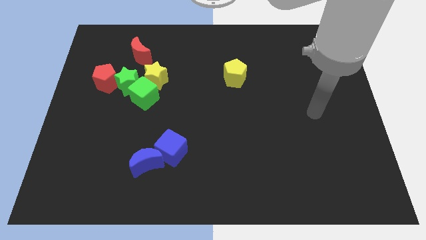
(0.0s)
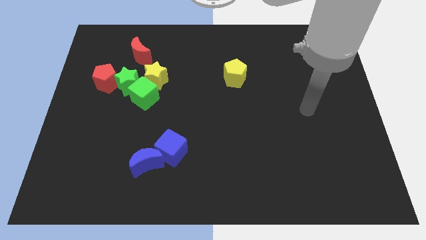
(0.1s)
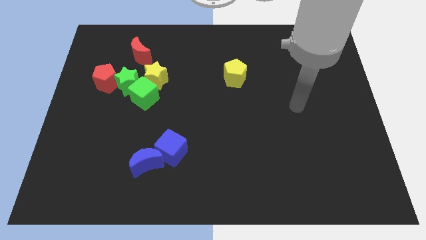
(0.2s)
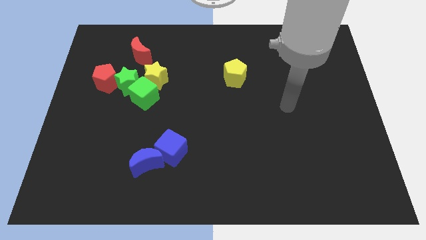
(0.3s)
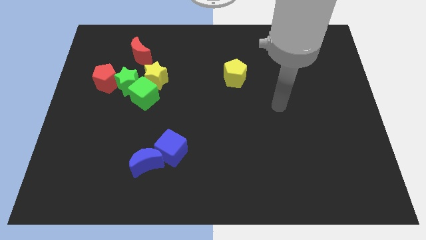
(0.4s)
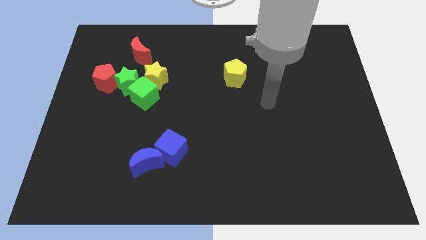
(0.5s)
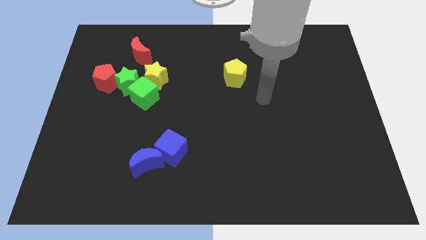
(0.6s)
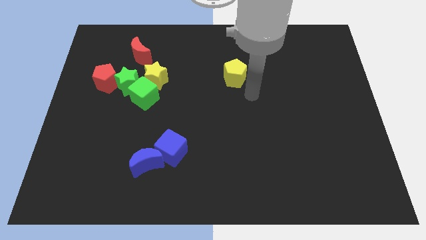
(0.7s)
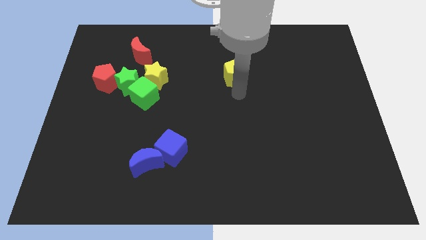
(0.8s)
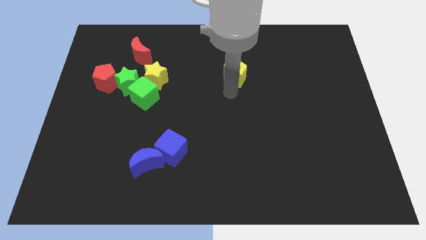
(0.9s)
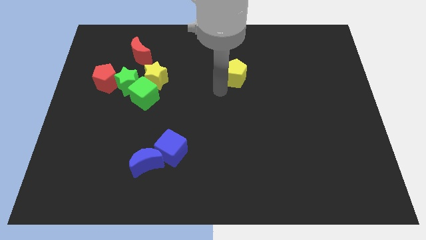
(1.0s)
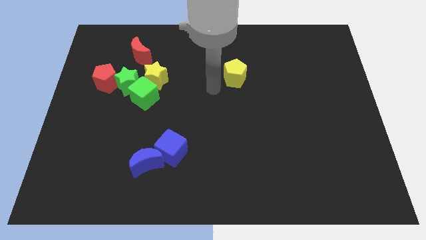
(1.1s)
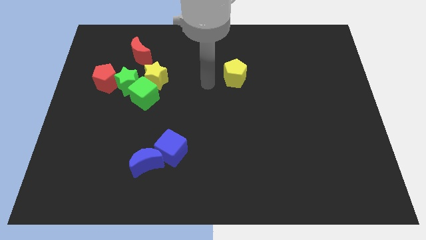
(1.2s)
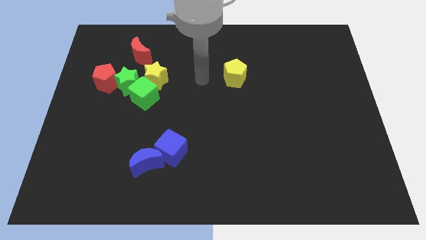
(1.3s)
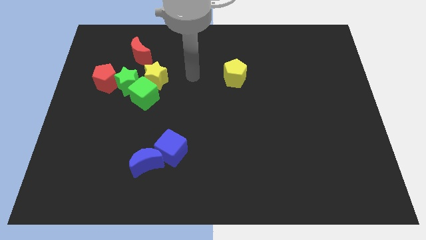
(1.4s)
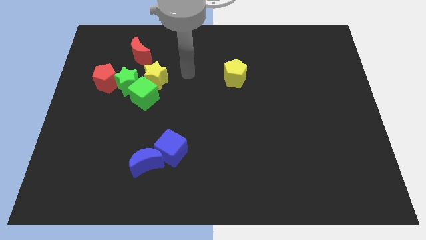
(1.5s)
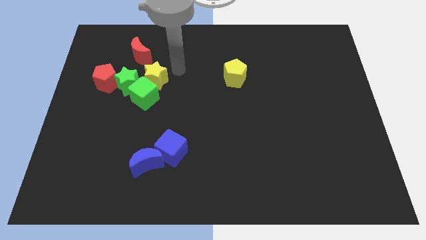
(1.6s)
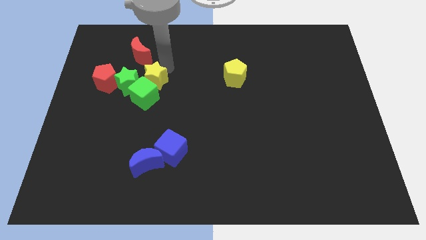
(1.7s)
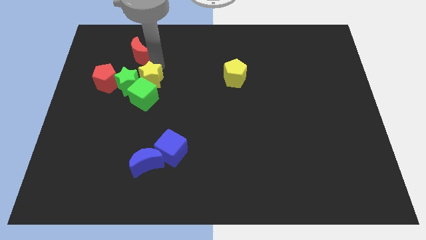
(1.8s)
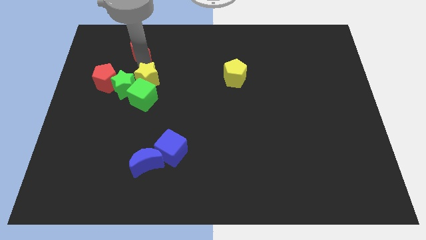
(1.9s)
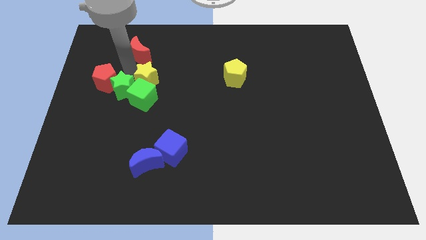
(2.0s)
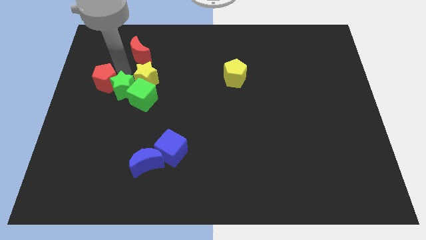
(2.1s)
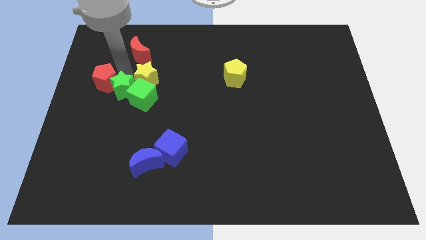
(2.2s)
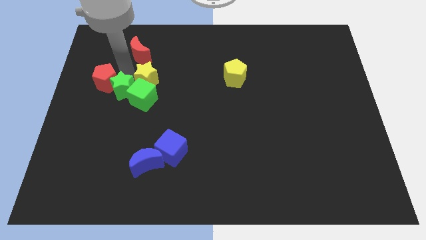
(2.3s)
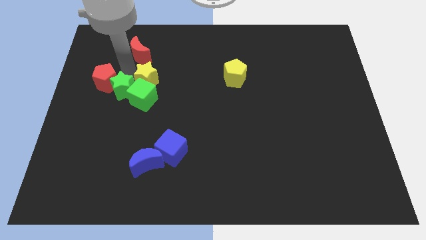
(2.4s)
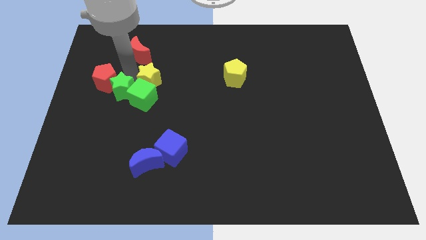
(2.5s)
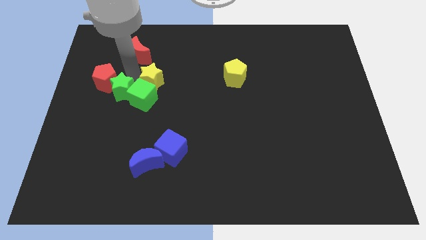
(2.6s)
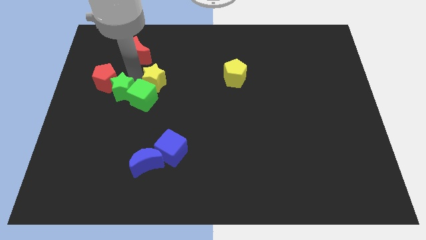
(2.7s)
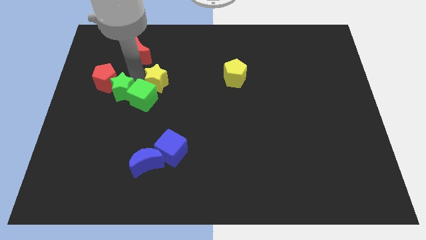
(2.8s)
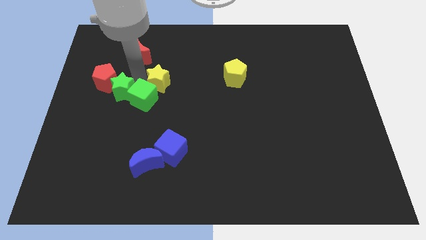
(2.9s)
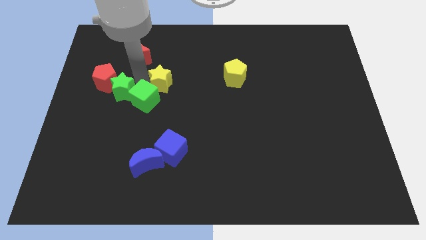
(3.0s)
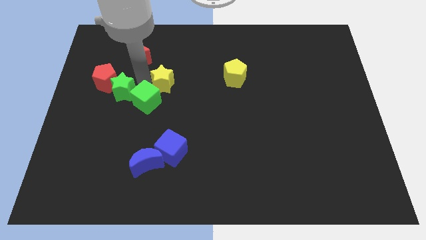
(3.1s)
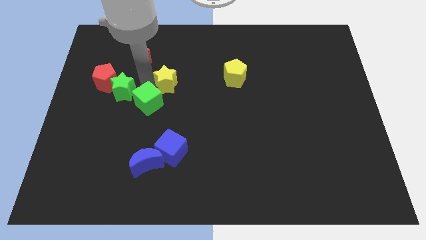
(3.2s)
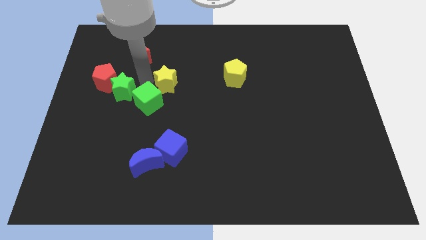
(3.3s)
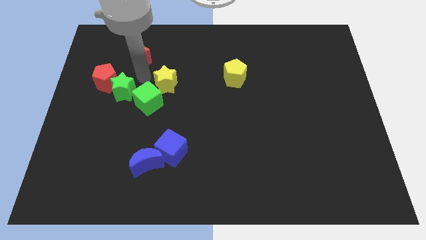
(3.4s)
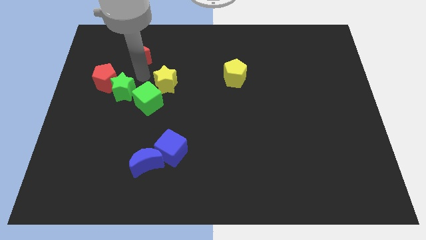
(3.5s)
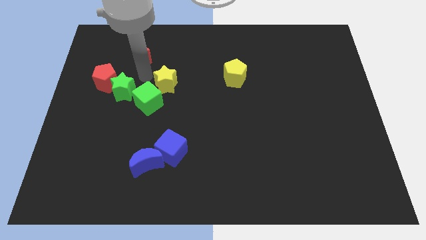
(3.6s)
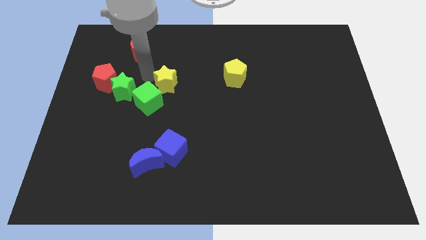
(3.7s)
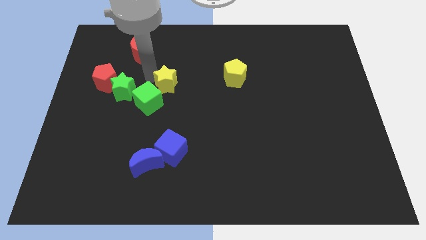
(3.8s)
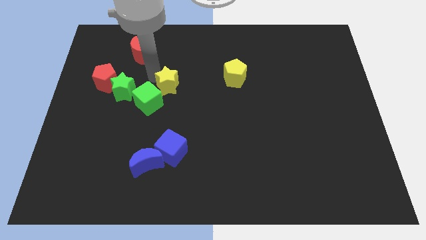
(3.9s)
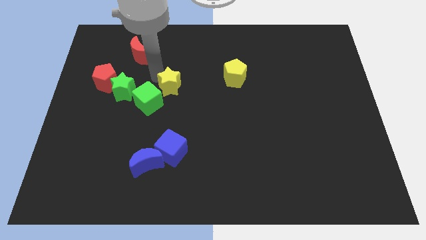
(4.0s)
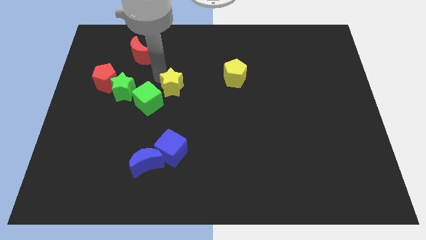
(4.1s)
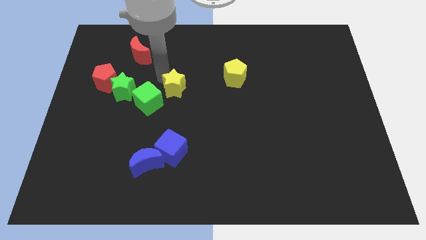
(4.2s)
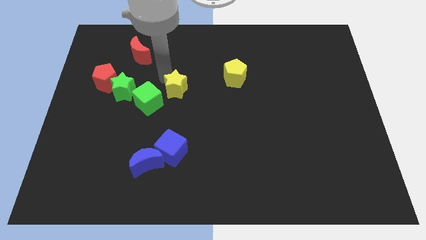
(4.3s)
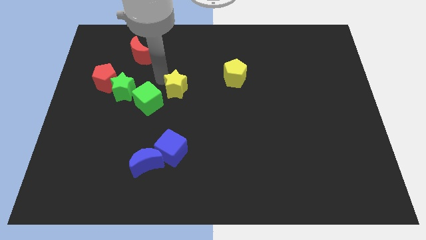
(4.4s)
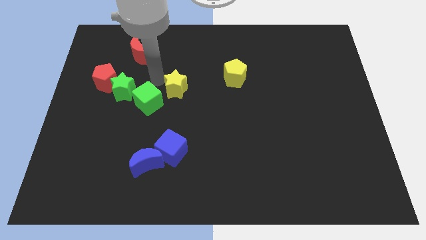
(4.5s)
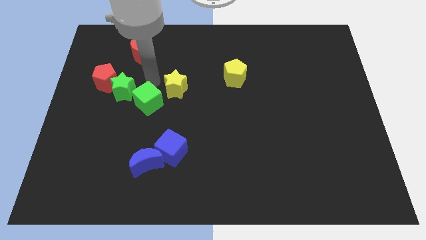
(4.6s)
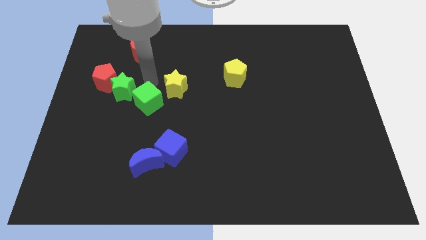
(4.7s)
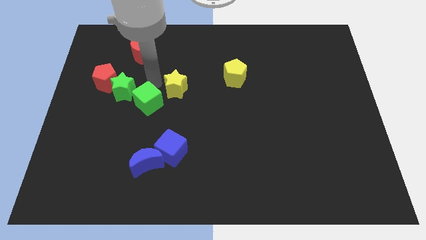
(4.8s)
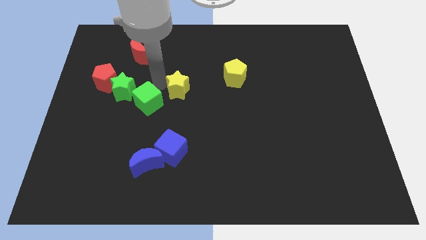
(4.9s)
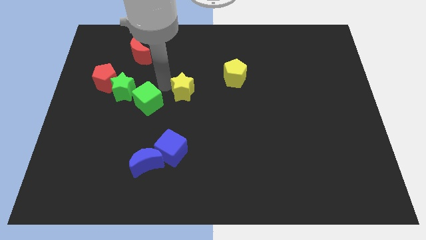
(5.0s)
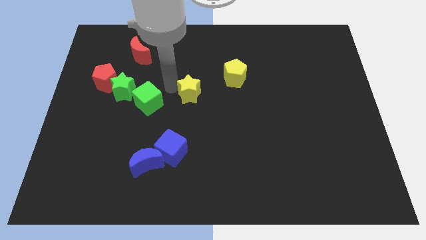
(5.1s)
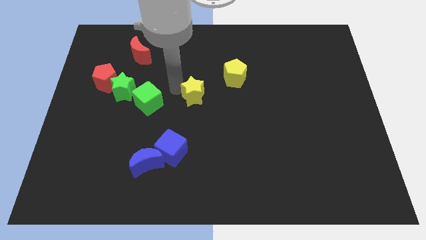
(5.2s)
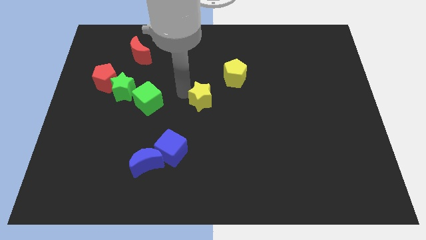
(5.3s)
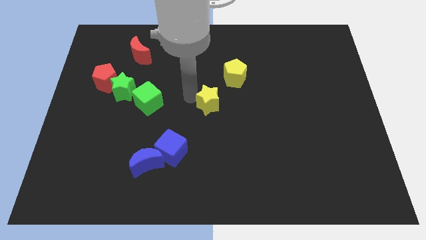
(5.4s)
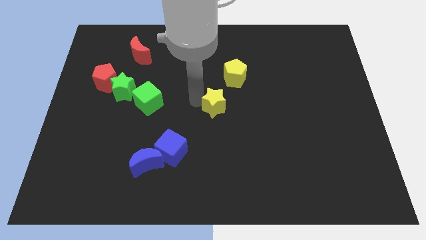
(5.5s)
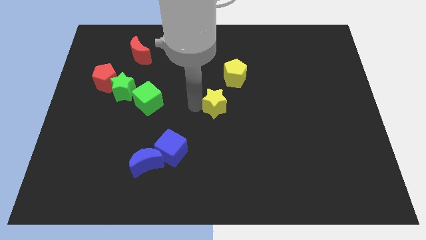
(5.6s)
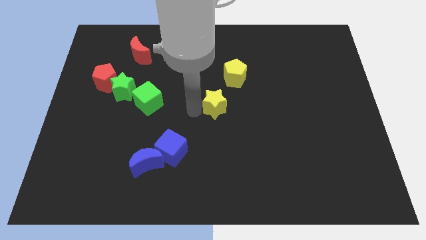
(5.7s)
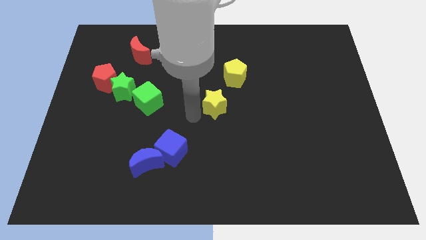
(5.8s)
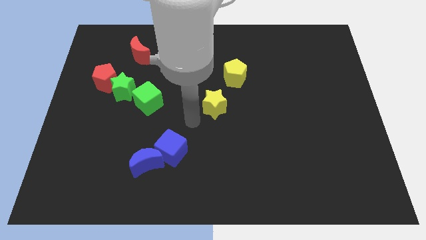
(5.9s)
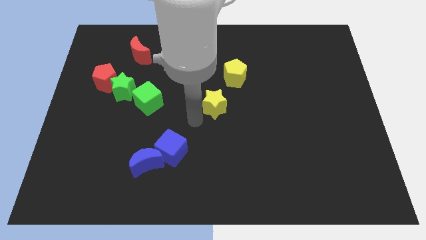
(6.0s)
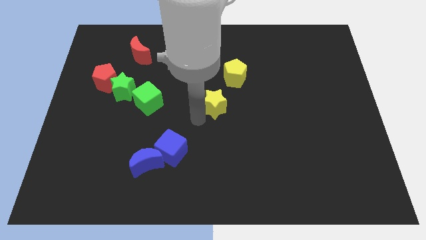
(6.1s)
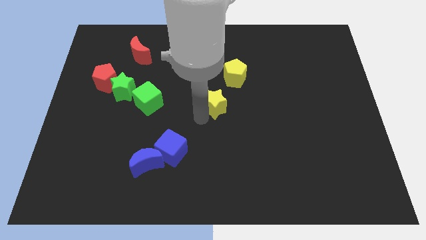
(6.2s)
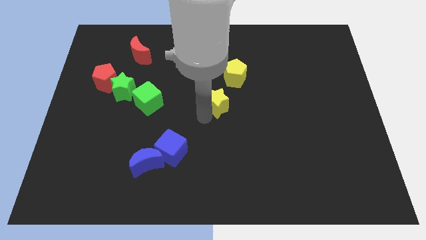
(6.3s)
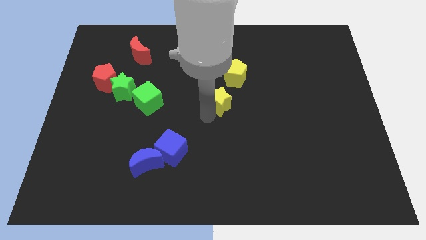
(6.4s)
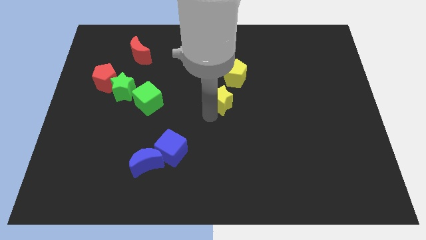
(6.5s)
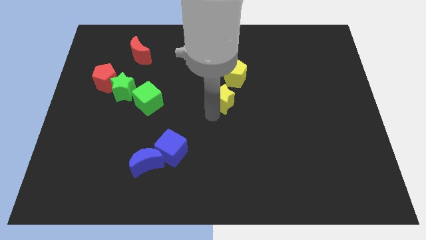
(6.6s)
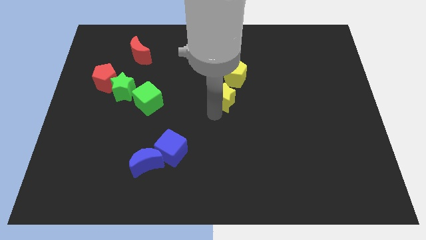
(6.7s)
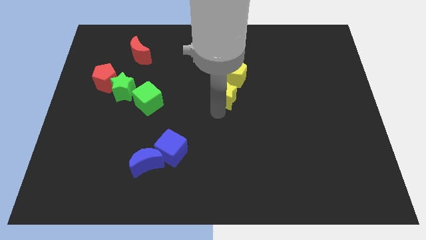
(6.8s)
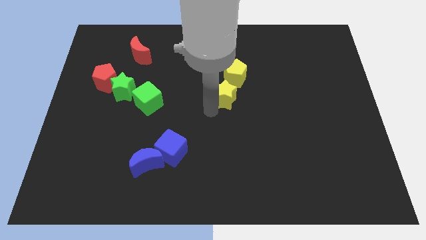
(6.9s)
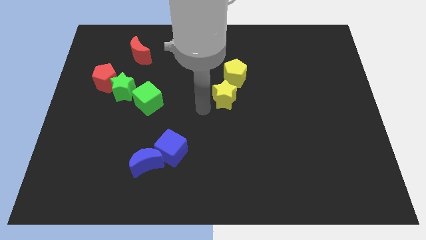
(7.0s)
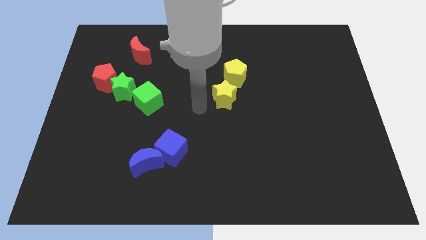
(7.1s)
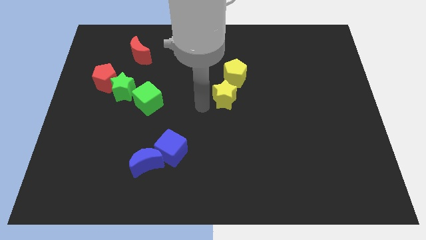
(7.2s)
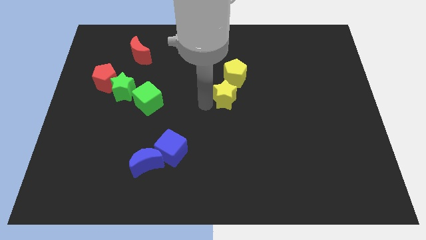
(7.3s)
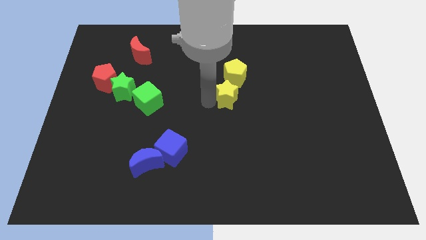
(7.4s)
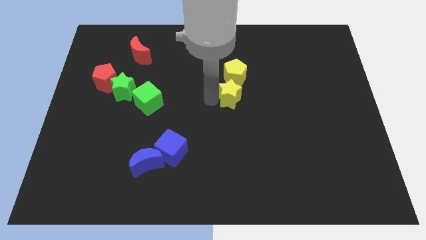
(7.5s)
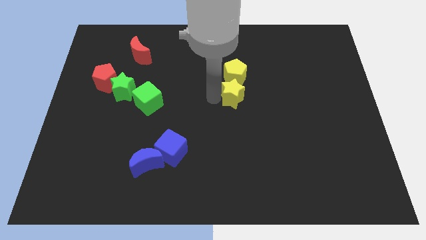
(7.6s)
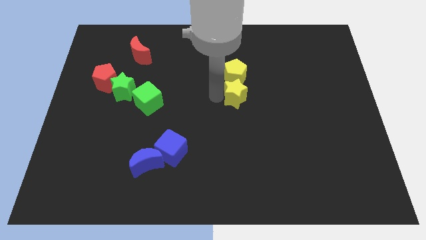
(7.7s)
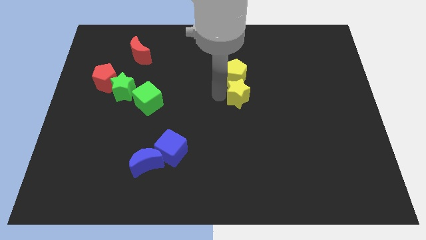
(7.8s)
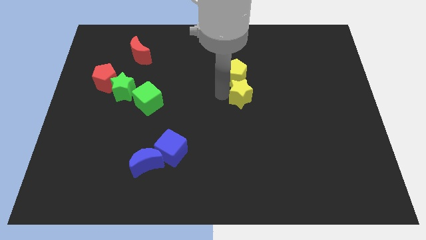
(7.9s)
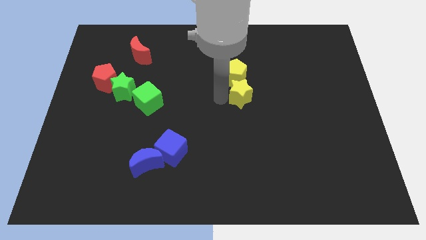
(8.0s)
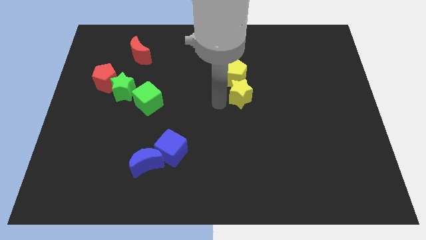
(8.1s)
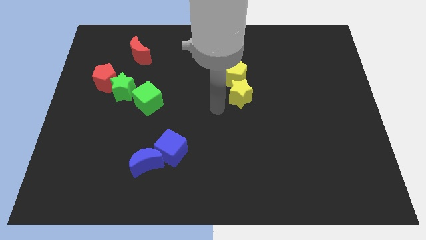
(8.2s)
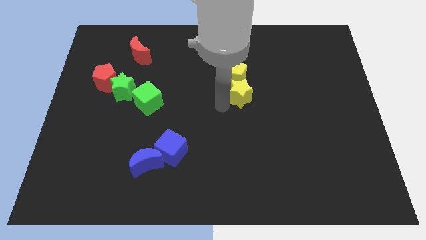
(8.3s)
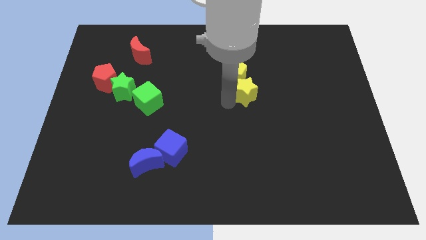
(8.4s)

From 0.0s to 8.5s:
push the yellow star to the right
